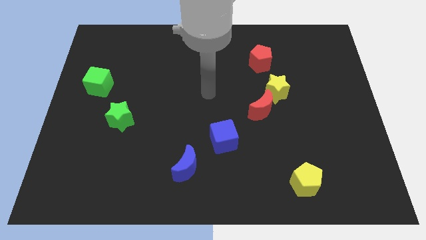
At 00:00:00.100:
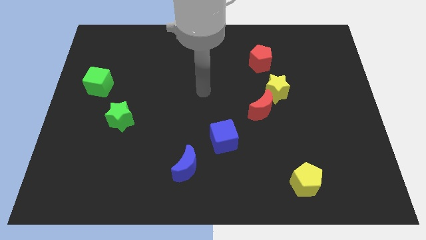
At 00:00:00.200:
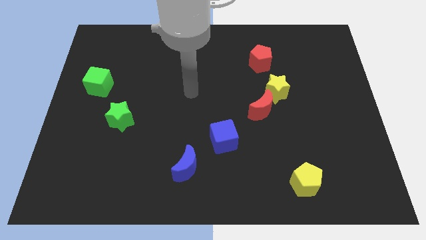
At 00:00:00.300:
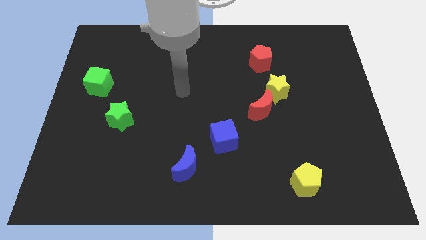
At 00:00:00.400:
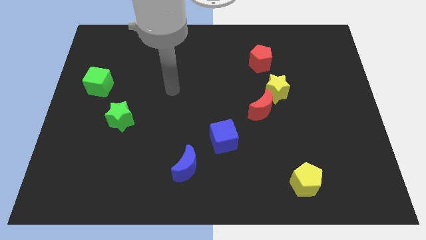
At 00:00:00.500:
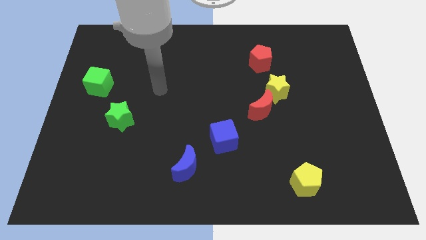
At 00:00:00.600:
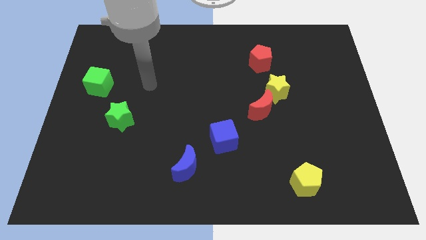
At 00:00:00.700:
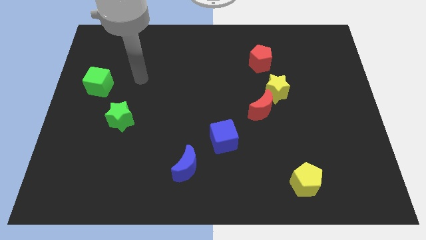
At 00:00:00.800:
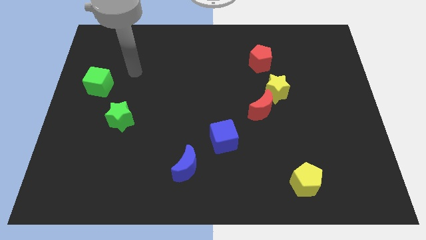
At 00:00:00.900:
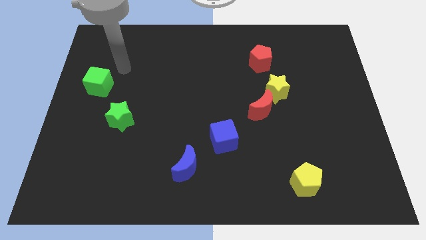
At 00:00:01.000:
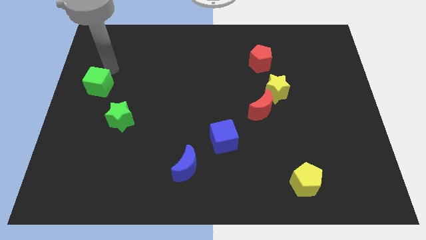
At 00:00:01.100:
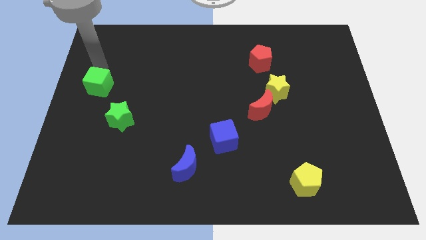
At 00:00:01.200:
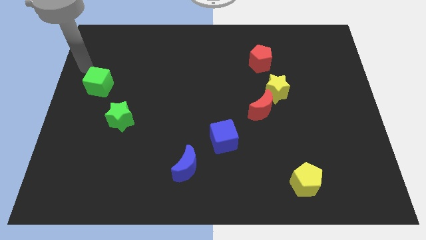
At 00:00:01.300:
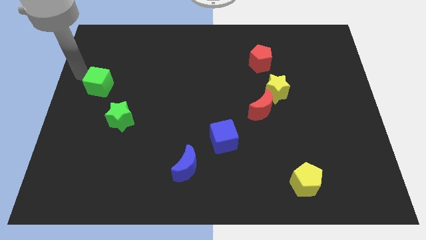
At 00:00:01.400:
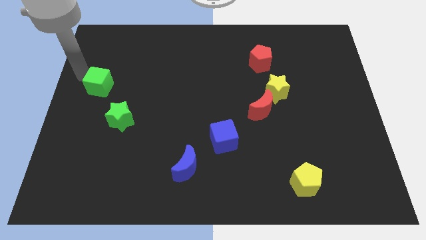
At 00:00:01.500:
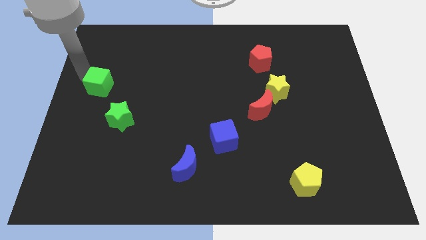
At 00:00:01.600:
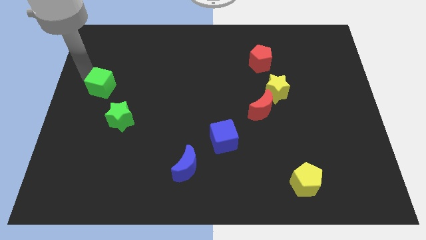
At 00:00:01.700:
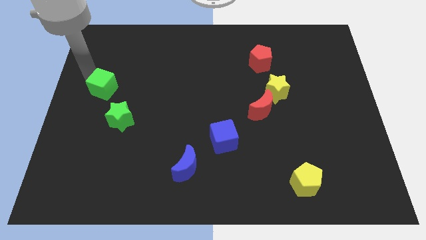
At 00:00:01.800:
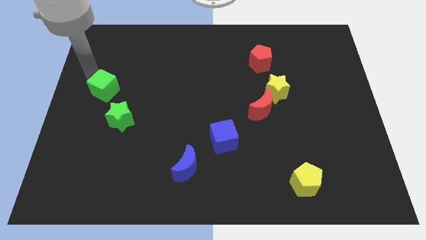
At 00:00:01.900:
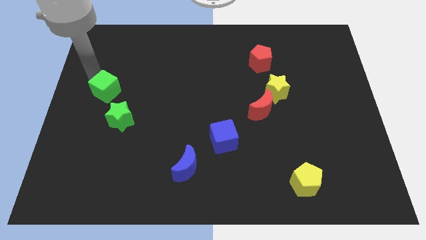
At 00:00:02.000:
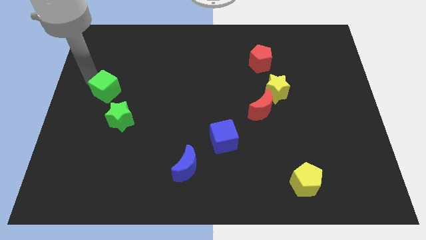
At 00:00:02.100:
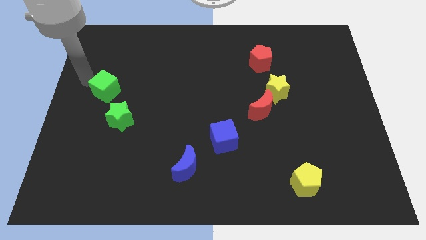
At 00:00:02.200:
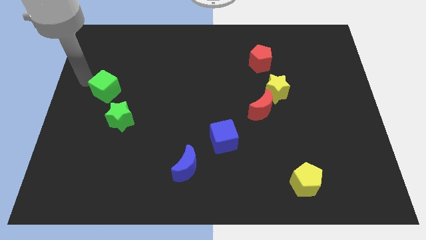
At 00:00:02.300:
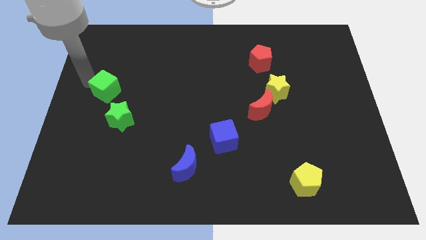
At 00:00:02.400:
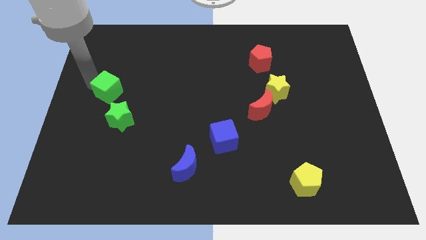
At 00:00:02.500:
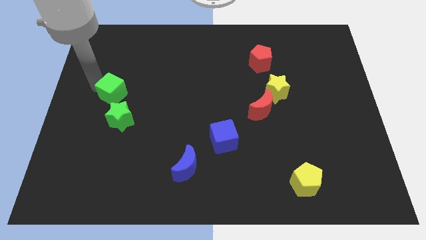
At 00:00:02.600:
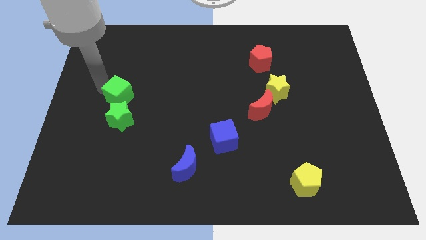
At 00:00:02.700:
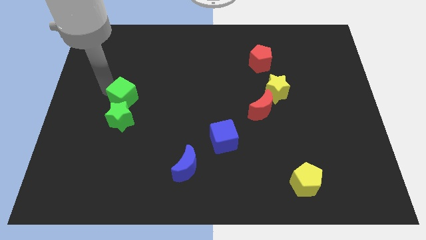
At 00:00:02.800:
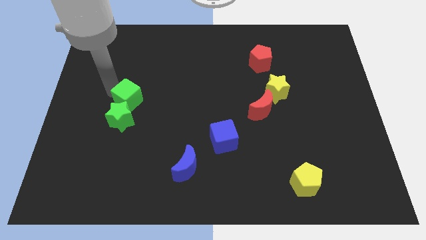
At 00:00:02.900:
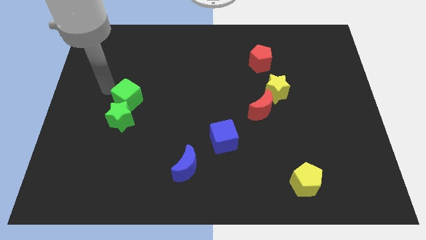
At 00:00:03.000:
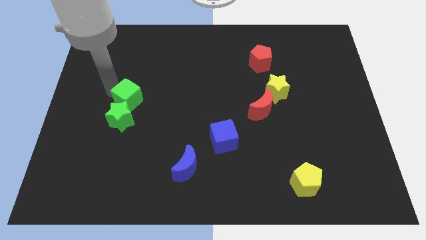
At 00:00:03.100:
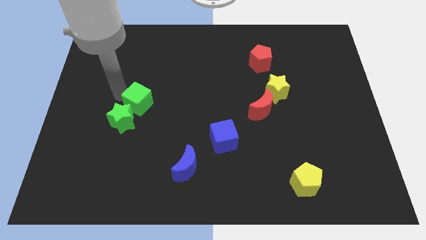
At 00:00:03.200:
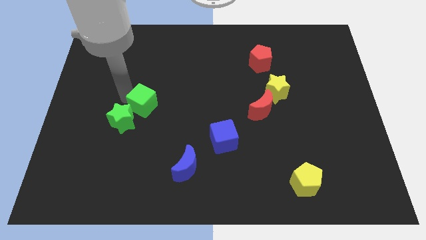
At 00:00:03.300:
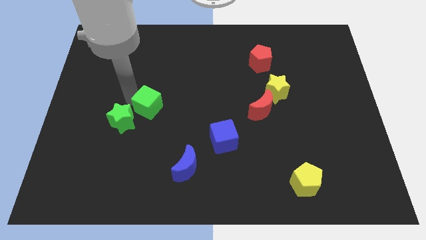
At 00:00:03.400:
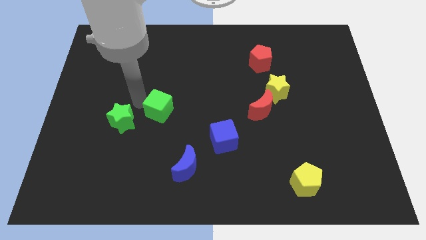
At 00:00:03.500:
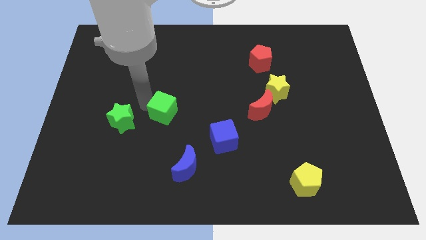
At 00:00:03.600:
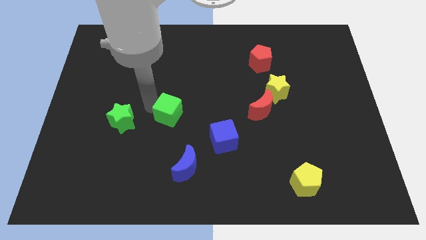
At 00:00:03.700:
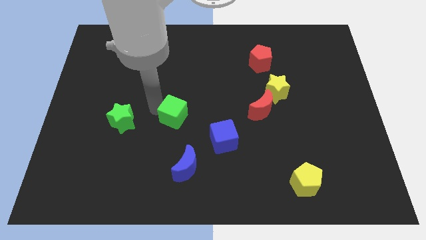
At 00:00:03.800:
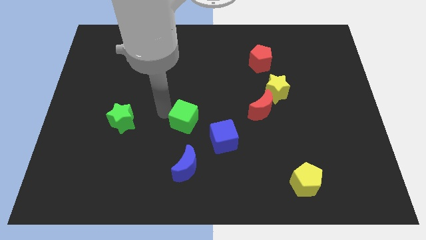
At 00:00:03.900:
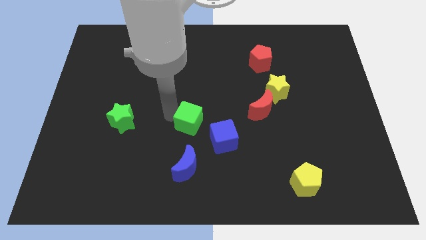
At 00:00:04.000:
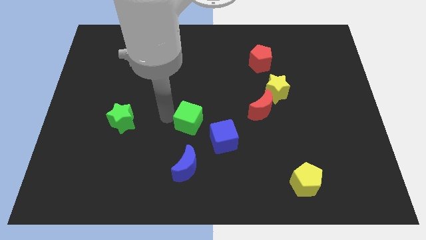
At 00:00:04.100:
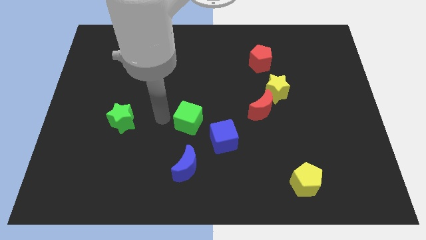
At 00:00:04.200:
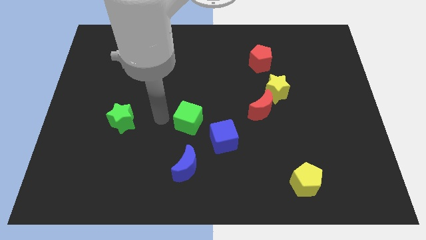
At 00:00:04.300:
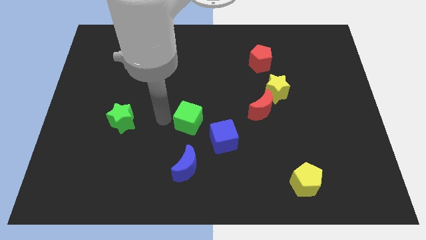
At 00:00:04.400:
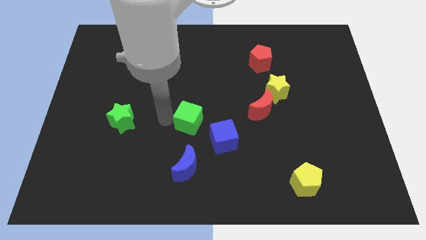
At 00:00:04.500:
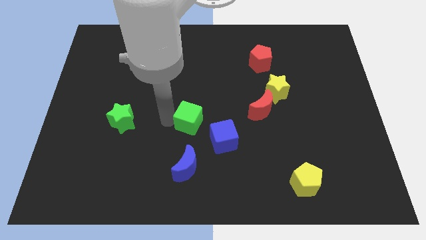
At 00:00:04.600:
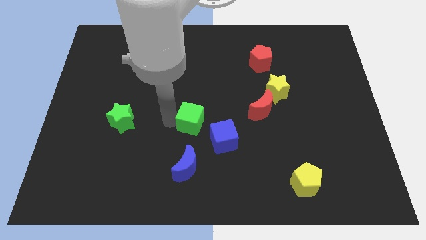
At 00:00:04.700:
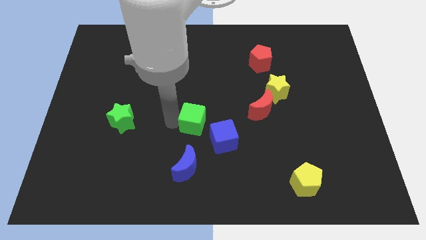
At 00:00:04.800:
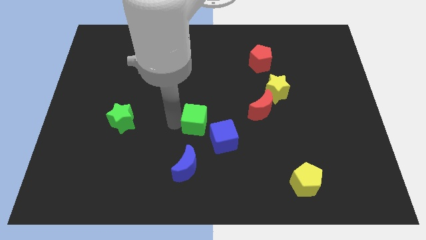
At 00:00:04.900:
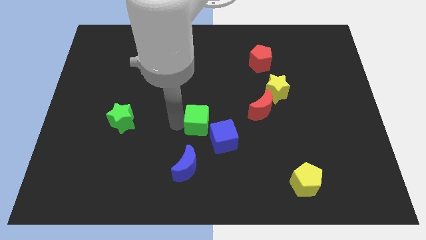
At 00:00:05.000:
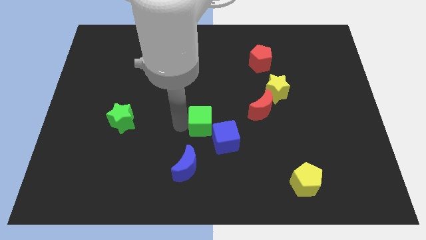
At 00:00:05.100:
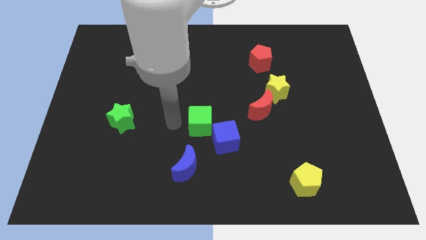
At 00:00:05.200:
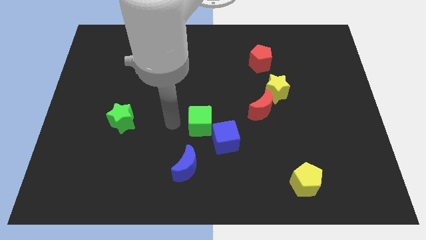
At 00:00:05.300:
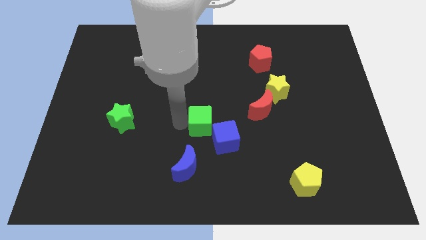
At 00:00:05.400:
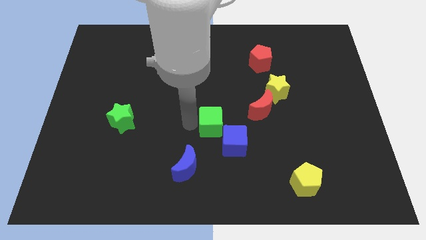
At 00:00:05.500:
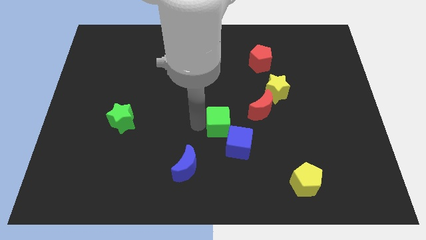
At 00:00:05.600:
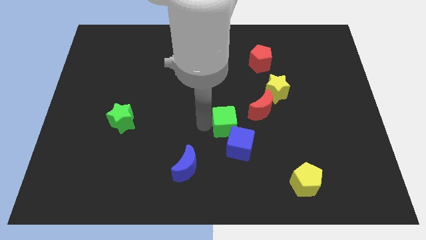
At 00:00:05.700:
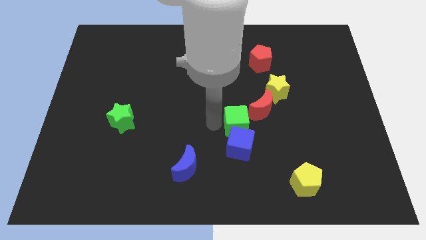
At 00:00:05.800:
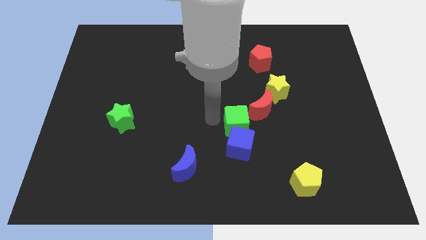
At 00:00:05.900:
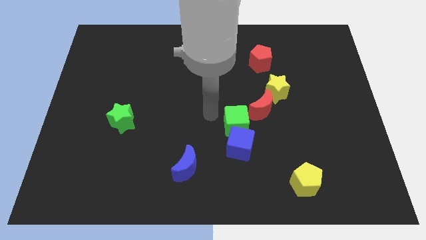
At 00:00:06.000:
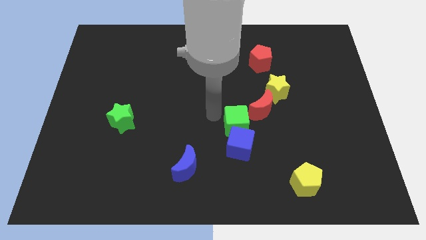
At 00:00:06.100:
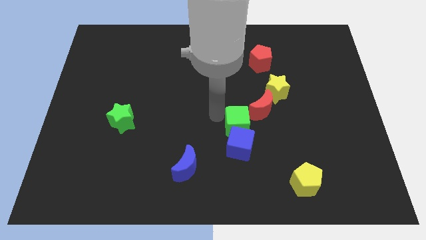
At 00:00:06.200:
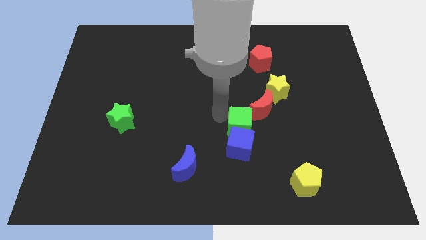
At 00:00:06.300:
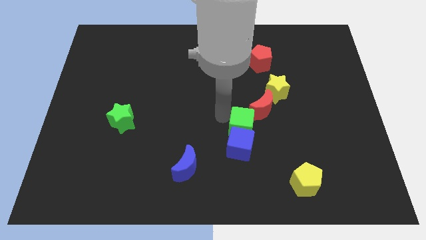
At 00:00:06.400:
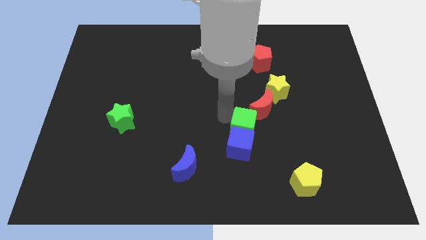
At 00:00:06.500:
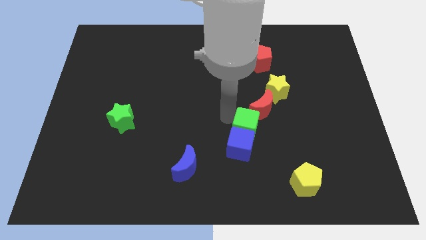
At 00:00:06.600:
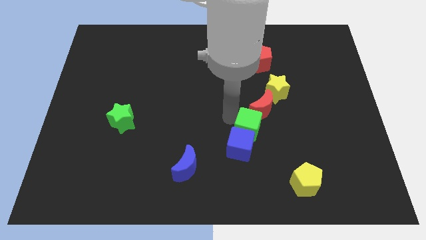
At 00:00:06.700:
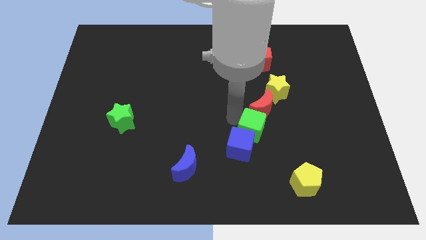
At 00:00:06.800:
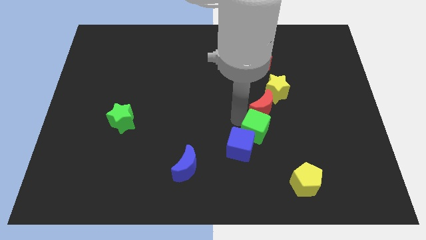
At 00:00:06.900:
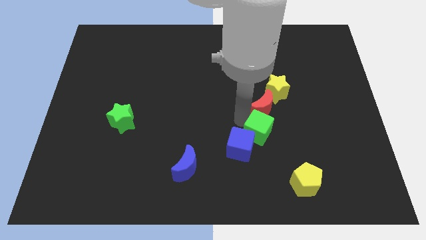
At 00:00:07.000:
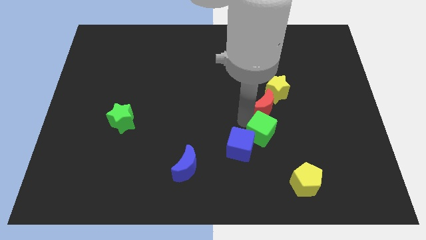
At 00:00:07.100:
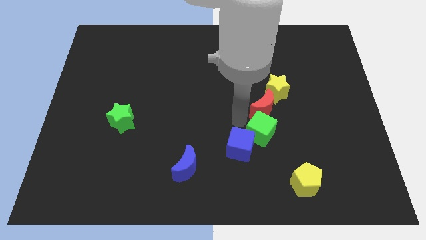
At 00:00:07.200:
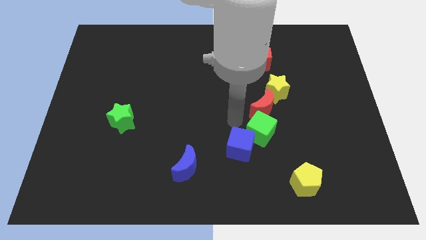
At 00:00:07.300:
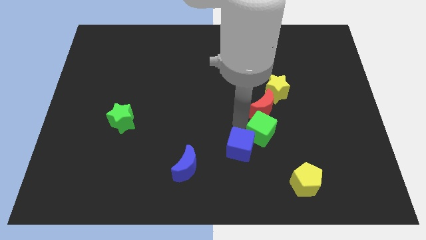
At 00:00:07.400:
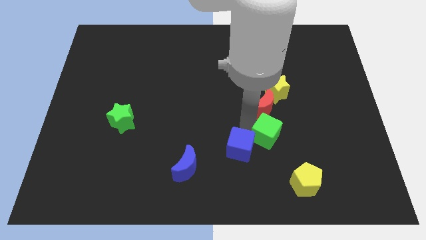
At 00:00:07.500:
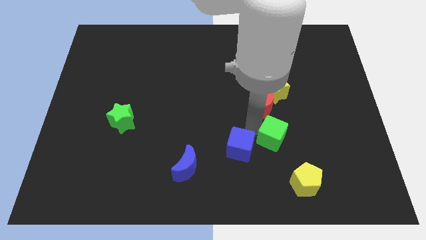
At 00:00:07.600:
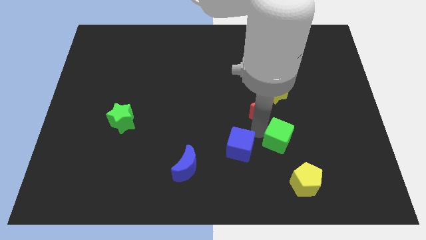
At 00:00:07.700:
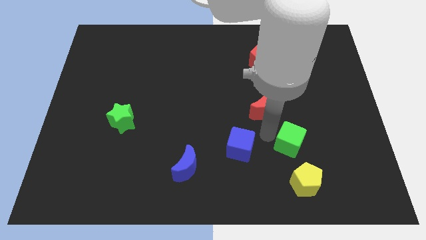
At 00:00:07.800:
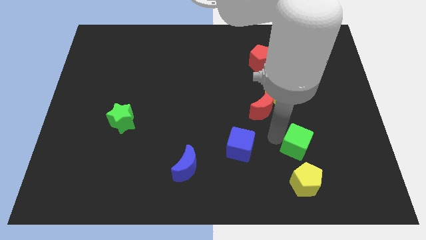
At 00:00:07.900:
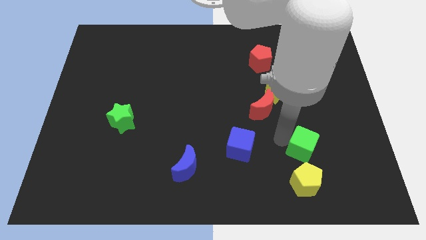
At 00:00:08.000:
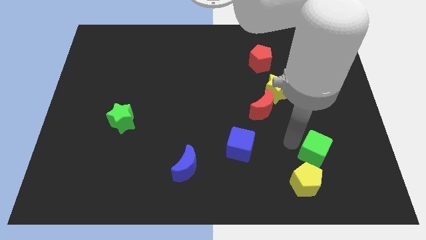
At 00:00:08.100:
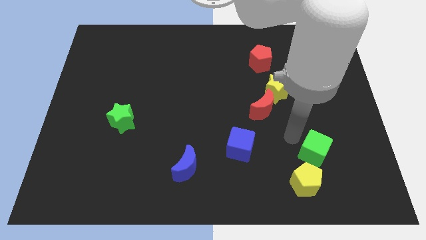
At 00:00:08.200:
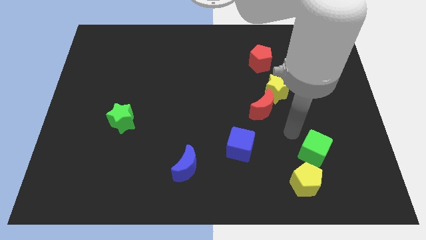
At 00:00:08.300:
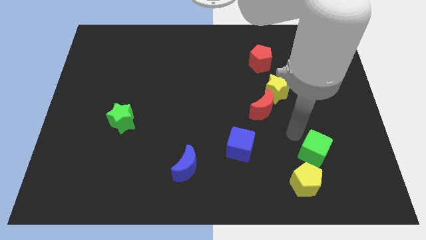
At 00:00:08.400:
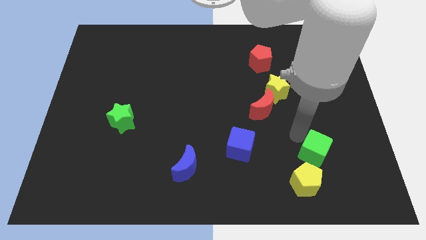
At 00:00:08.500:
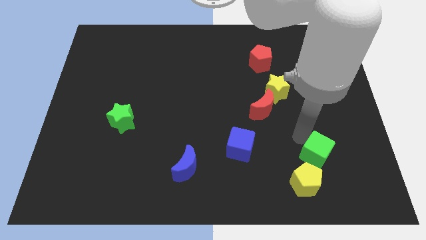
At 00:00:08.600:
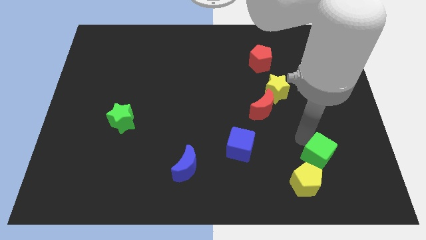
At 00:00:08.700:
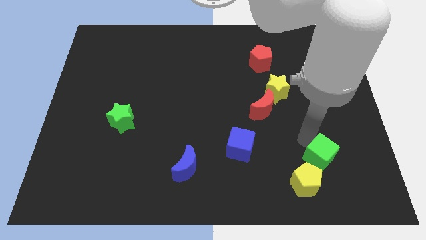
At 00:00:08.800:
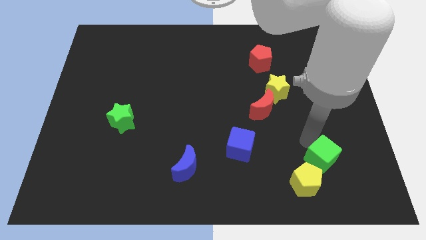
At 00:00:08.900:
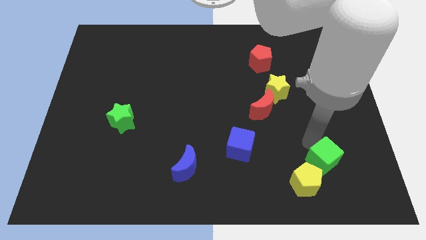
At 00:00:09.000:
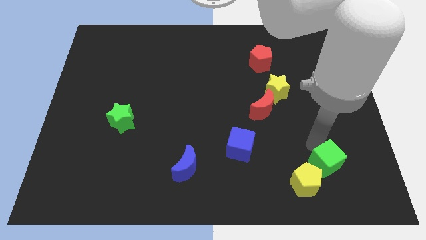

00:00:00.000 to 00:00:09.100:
slide the green cube just right of the yellow pentagon
